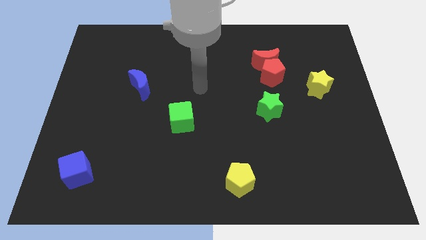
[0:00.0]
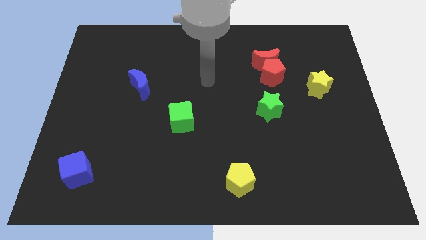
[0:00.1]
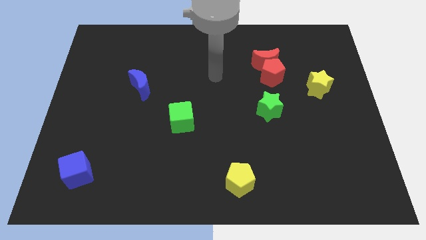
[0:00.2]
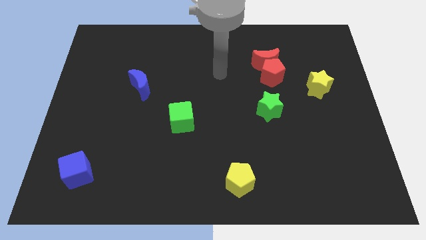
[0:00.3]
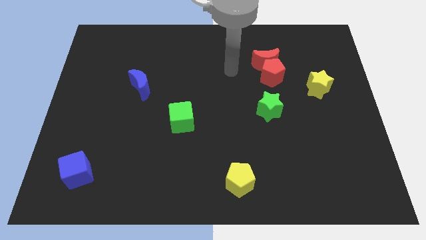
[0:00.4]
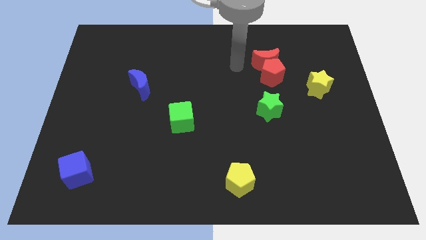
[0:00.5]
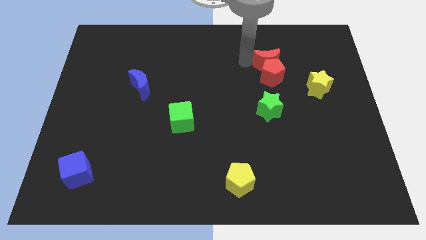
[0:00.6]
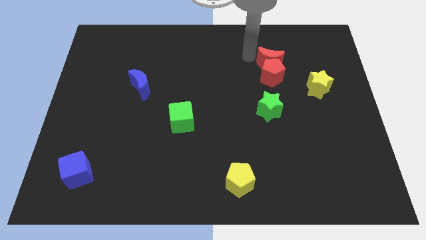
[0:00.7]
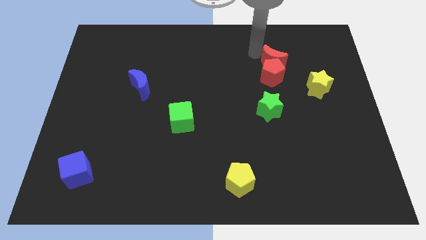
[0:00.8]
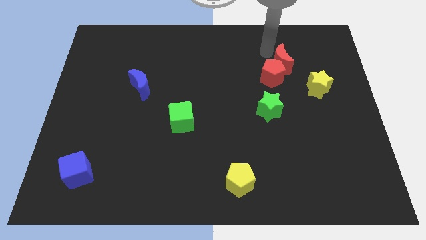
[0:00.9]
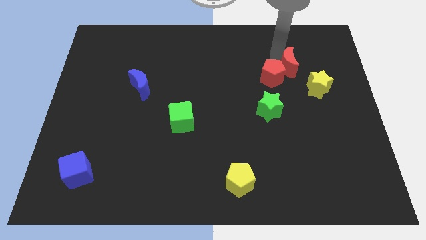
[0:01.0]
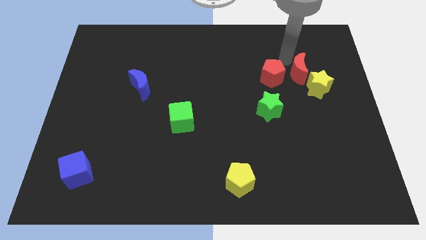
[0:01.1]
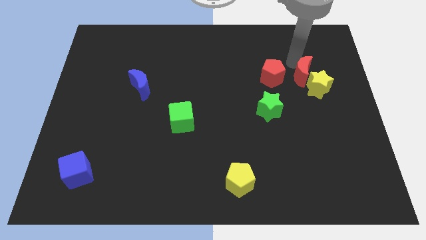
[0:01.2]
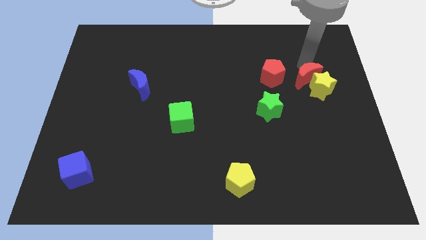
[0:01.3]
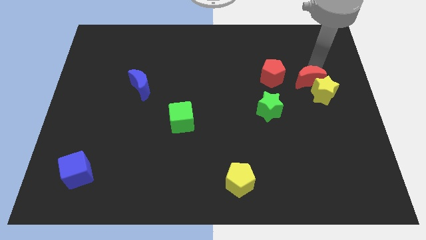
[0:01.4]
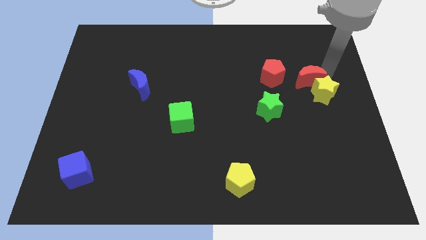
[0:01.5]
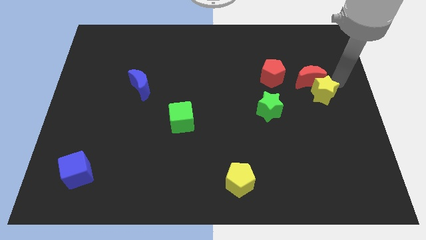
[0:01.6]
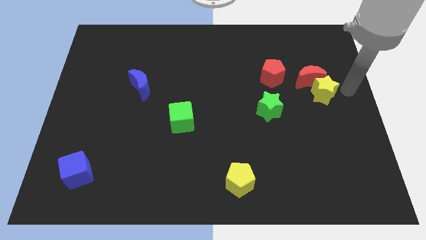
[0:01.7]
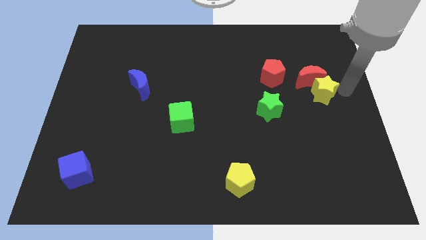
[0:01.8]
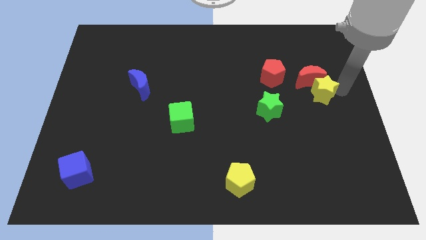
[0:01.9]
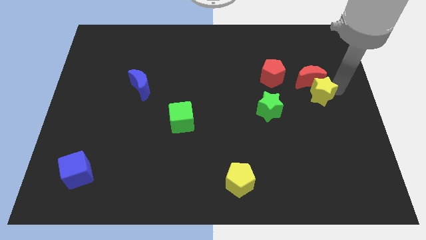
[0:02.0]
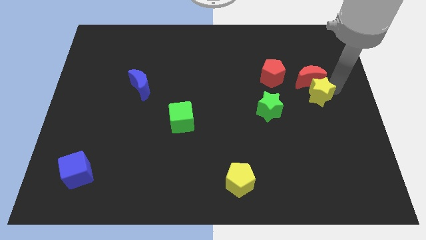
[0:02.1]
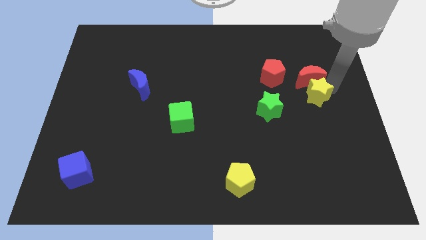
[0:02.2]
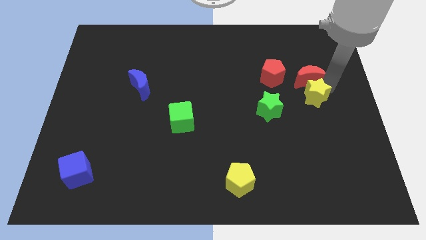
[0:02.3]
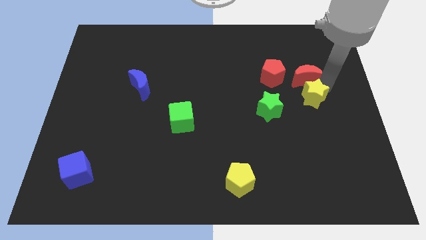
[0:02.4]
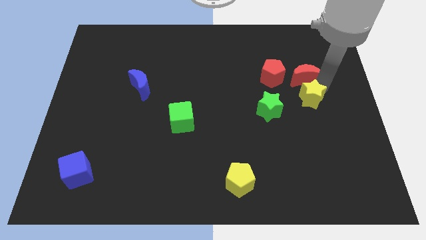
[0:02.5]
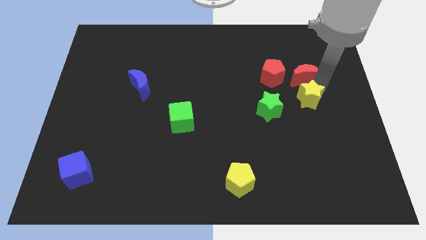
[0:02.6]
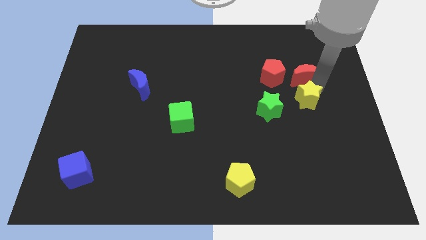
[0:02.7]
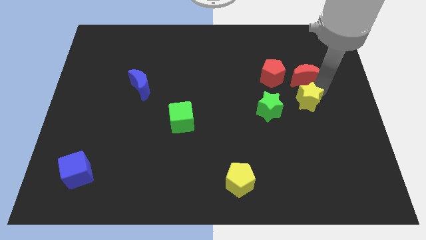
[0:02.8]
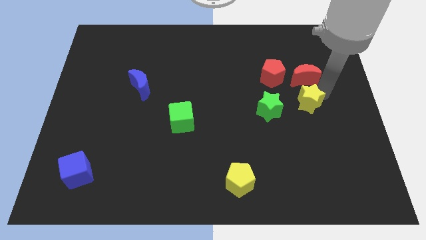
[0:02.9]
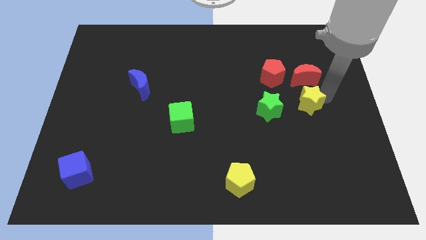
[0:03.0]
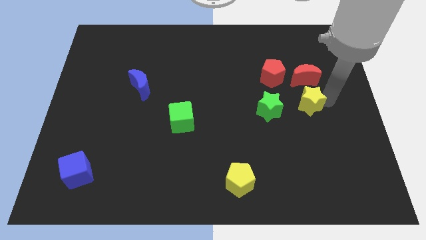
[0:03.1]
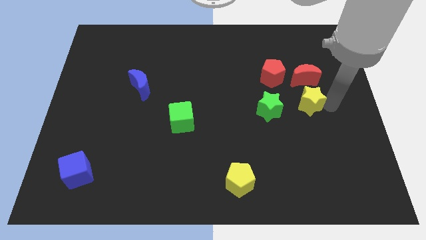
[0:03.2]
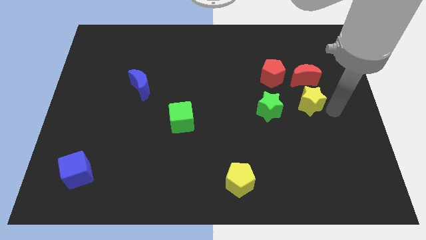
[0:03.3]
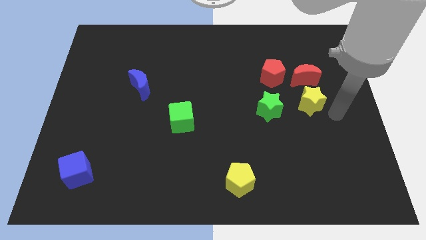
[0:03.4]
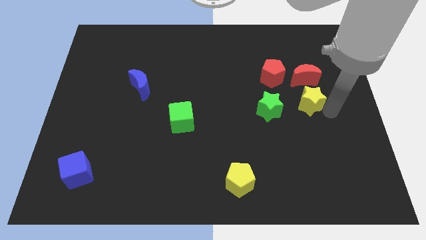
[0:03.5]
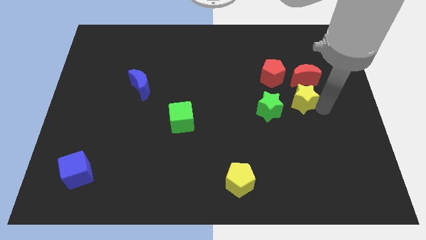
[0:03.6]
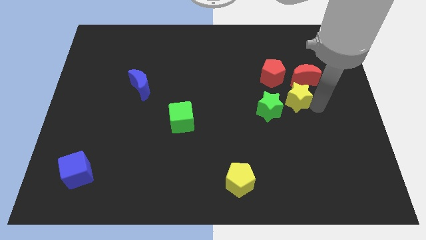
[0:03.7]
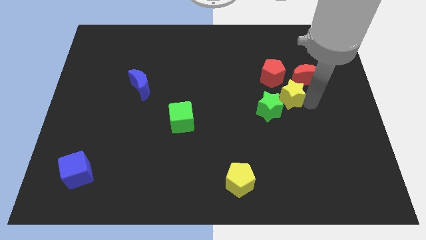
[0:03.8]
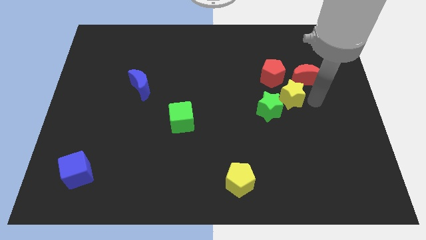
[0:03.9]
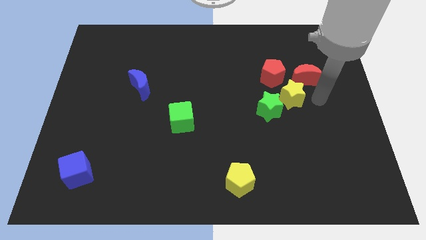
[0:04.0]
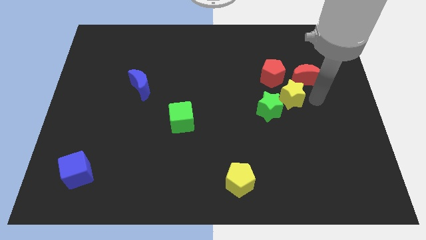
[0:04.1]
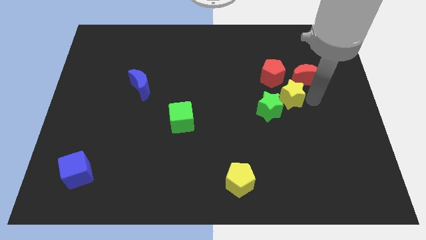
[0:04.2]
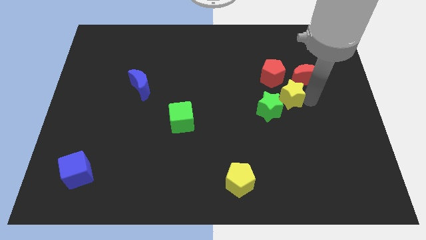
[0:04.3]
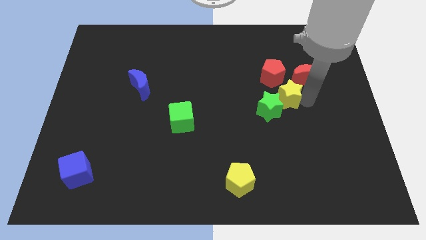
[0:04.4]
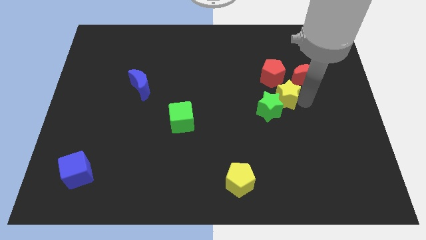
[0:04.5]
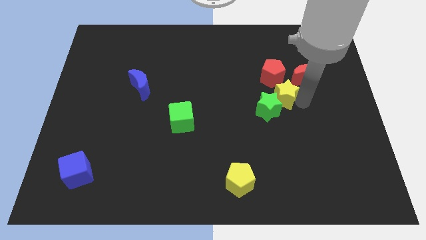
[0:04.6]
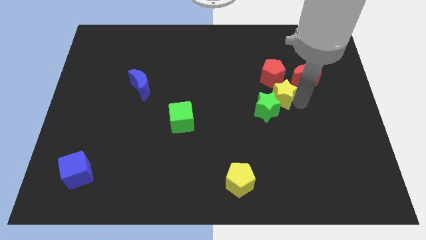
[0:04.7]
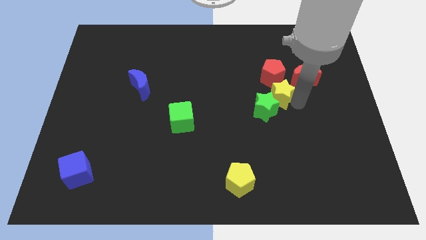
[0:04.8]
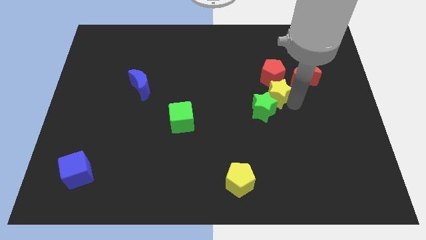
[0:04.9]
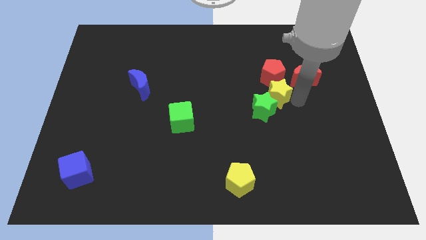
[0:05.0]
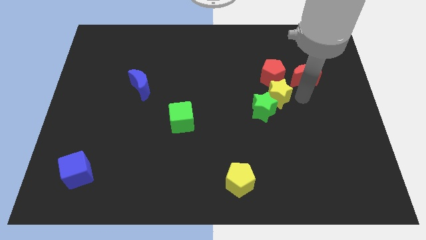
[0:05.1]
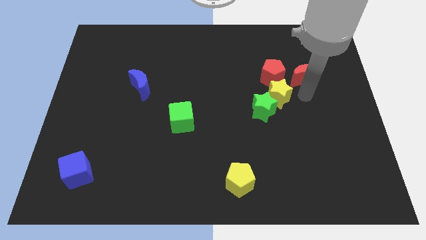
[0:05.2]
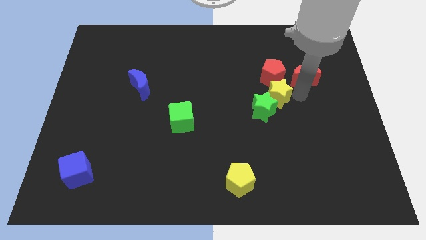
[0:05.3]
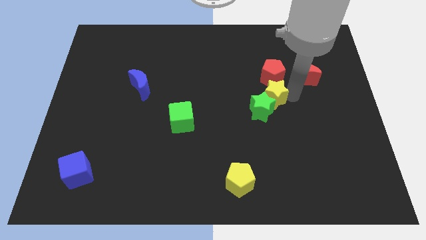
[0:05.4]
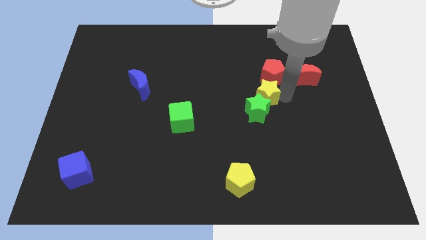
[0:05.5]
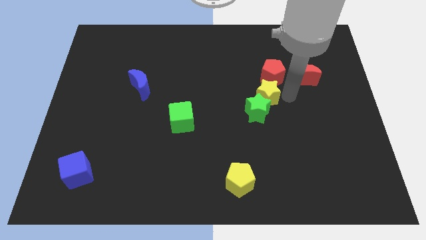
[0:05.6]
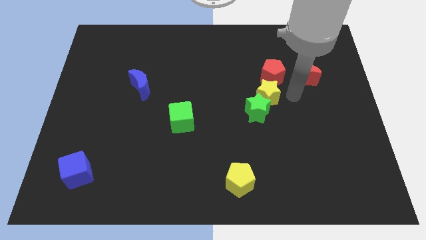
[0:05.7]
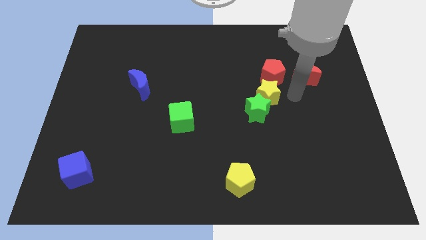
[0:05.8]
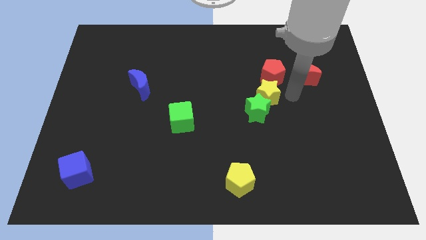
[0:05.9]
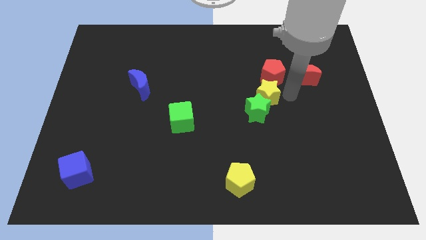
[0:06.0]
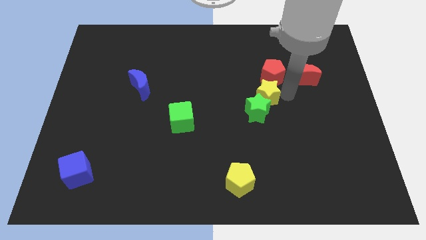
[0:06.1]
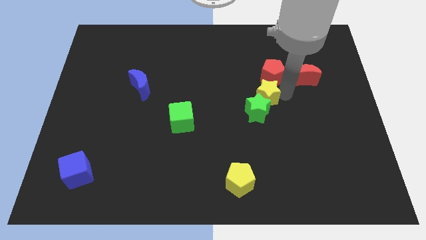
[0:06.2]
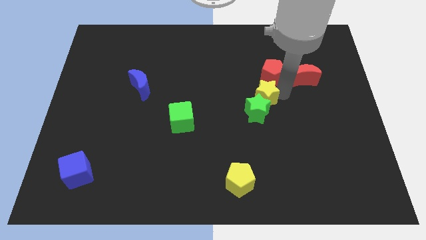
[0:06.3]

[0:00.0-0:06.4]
push the yellow star to the middle

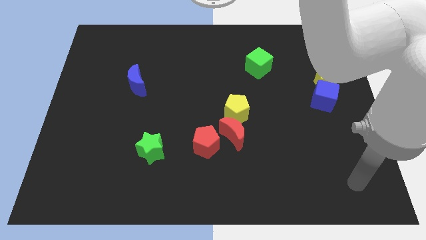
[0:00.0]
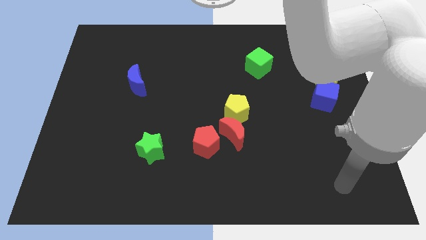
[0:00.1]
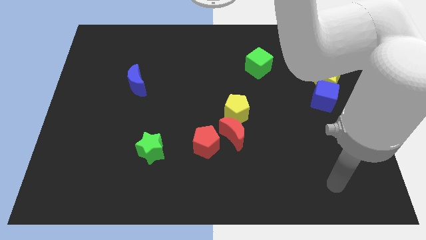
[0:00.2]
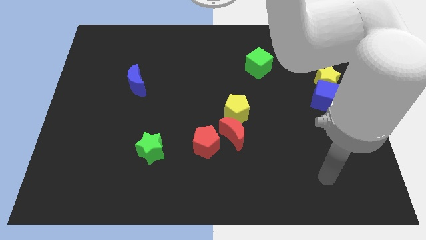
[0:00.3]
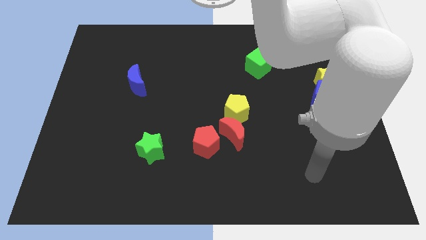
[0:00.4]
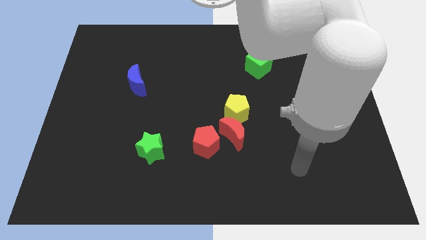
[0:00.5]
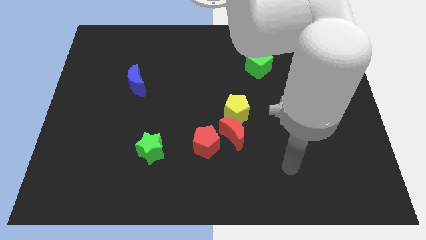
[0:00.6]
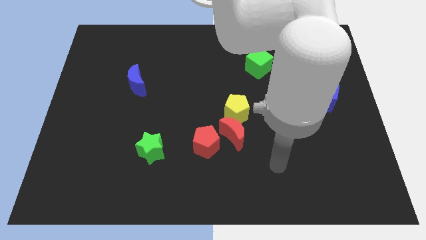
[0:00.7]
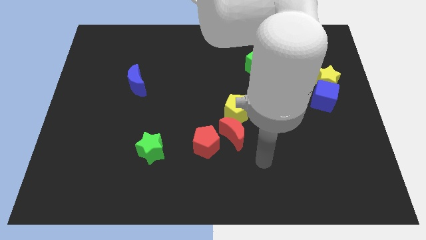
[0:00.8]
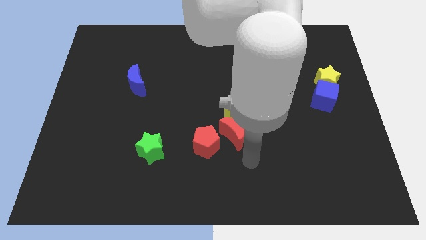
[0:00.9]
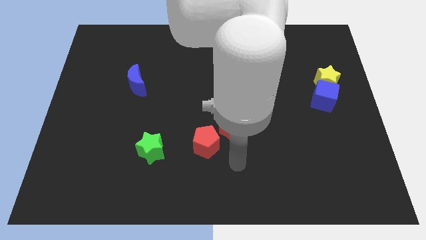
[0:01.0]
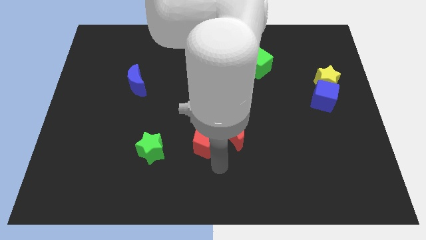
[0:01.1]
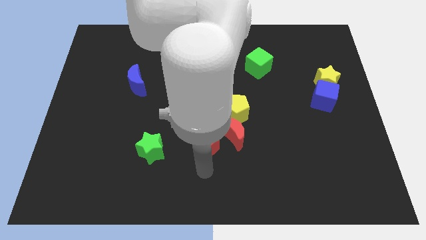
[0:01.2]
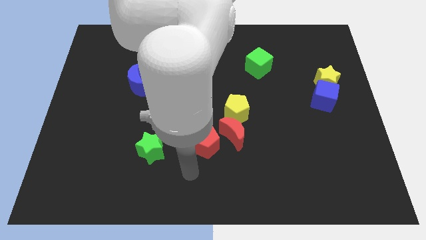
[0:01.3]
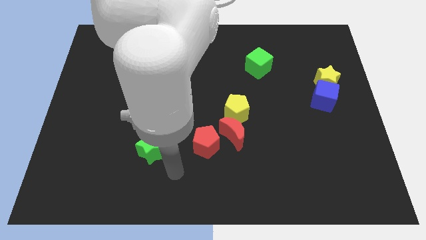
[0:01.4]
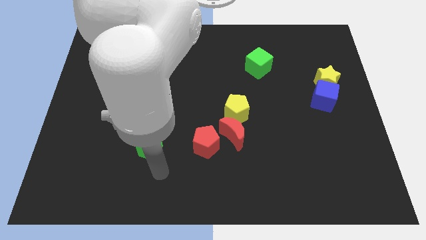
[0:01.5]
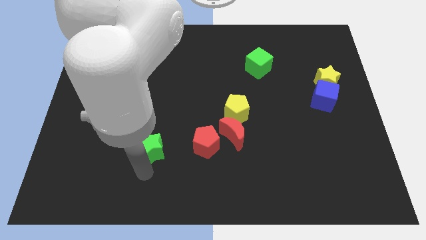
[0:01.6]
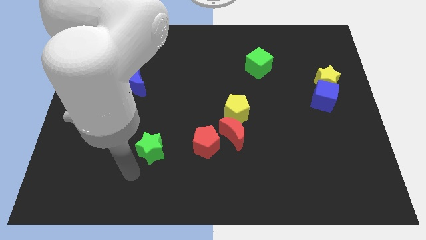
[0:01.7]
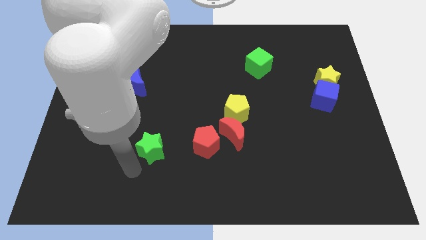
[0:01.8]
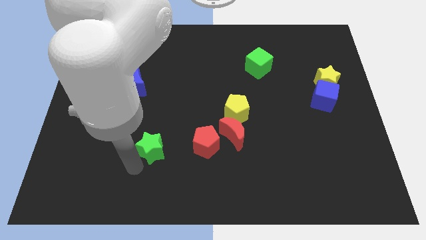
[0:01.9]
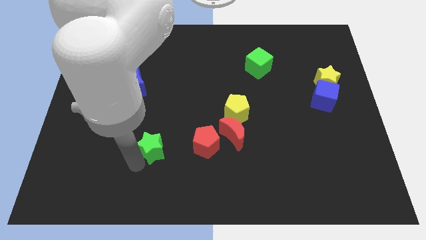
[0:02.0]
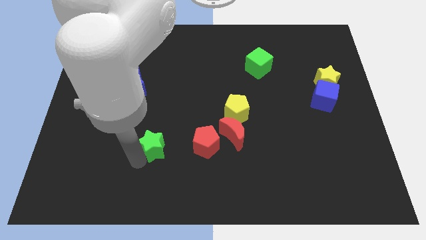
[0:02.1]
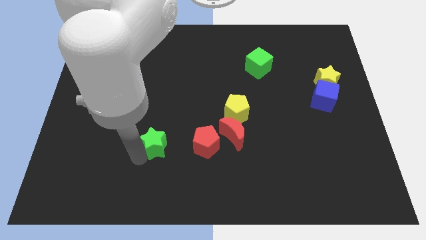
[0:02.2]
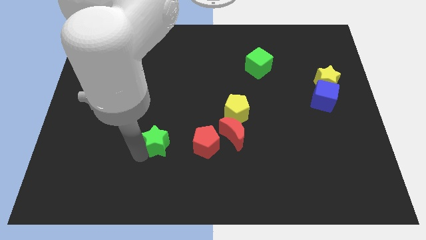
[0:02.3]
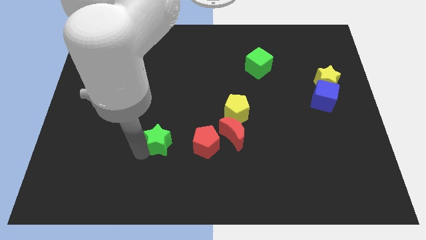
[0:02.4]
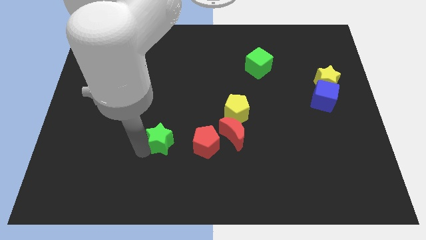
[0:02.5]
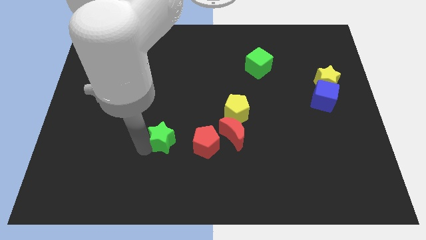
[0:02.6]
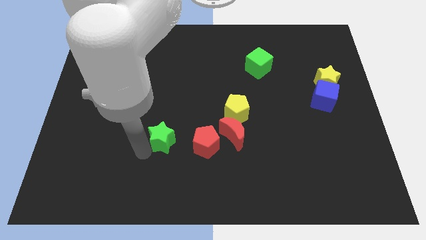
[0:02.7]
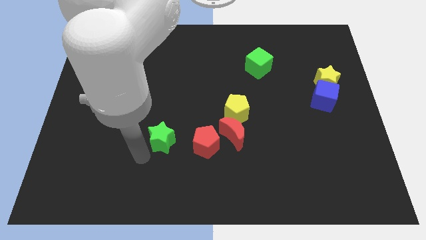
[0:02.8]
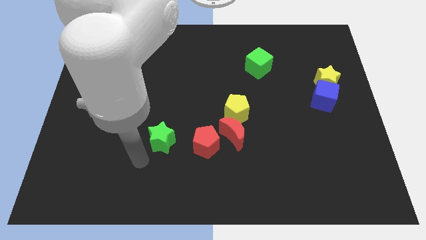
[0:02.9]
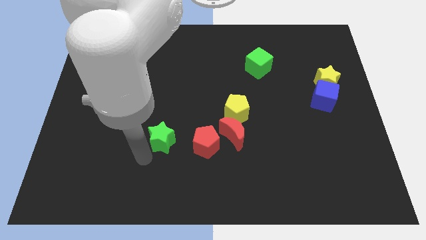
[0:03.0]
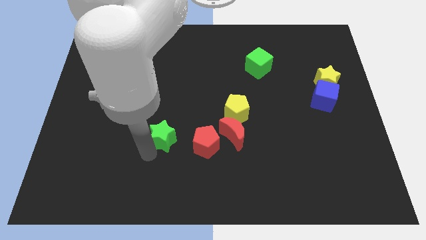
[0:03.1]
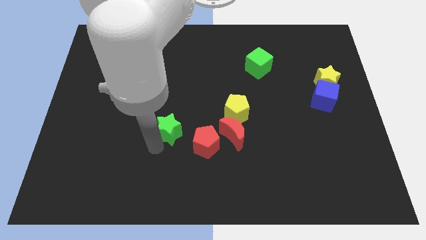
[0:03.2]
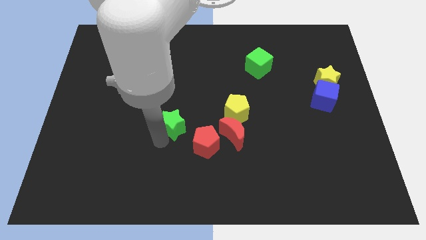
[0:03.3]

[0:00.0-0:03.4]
slide the green star to the center of the board
